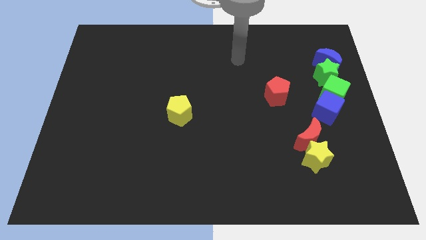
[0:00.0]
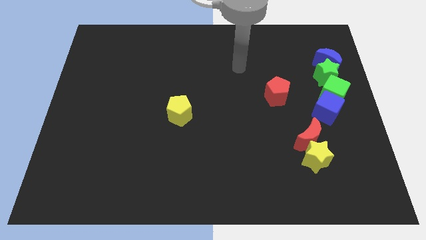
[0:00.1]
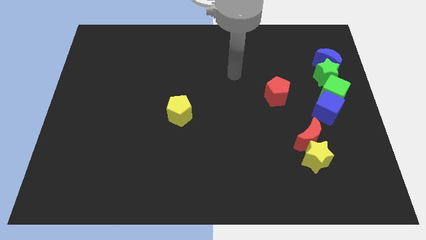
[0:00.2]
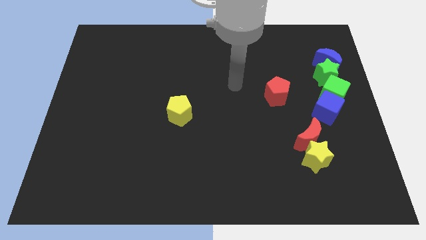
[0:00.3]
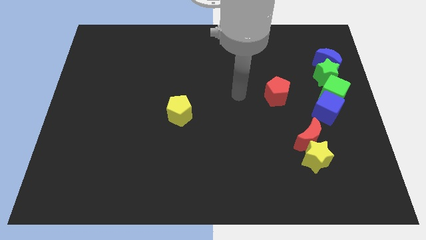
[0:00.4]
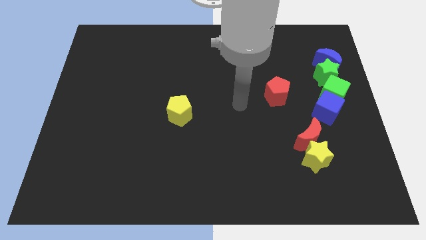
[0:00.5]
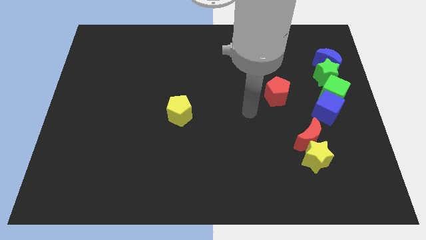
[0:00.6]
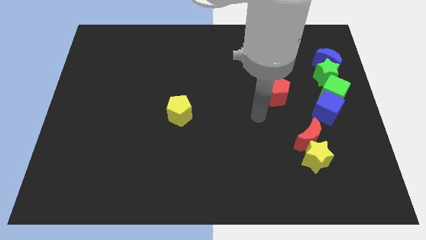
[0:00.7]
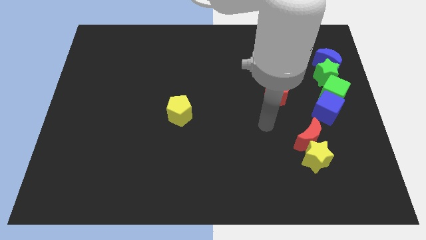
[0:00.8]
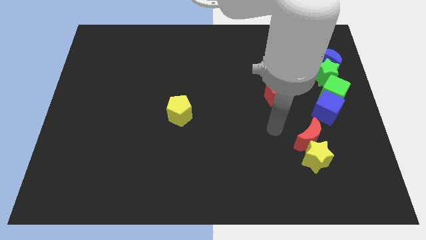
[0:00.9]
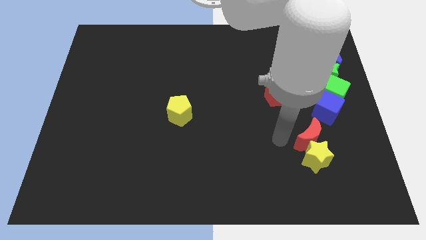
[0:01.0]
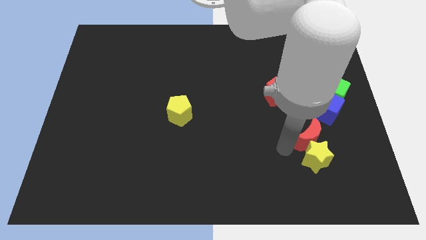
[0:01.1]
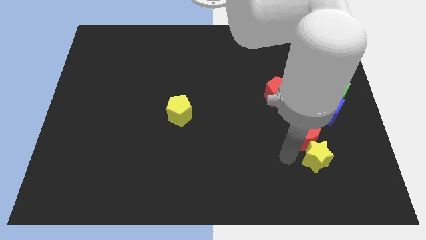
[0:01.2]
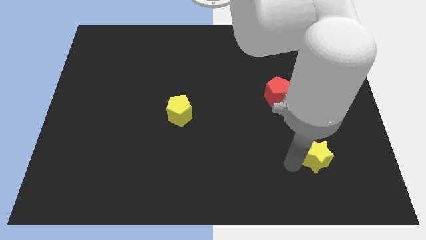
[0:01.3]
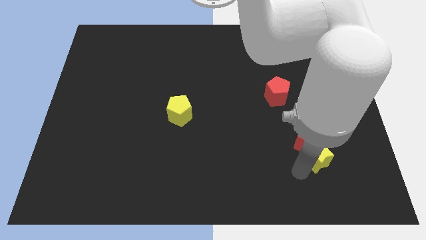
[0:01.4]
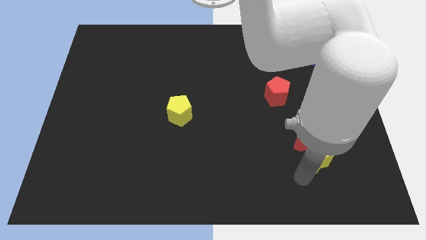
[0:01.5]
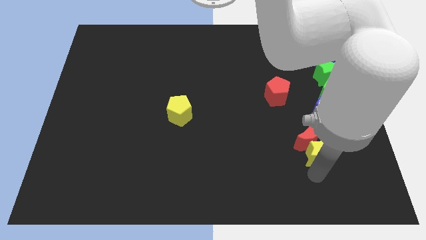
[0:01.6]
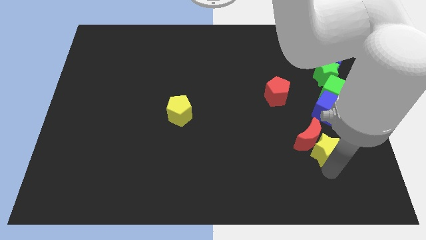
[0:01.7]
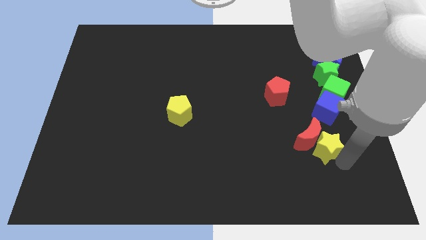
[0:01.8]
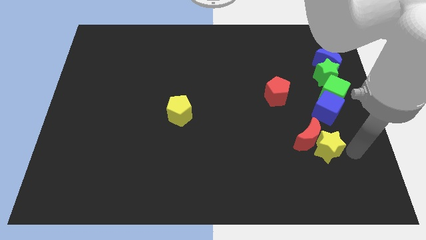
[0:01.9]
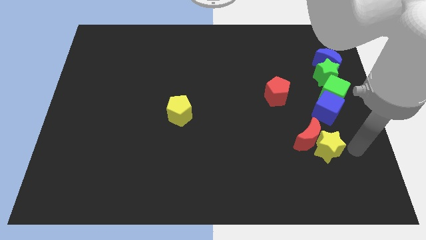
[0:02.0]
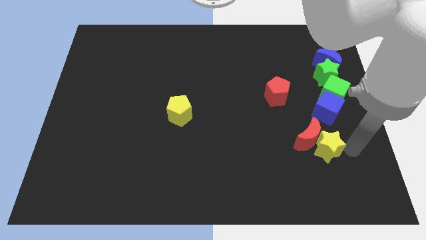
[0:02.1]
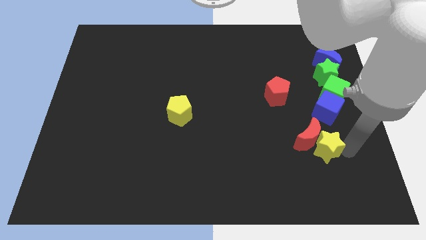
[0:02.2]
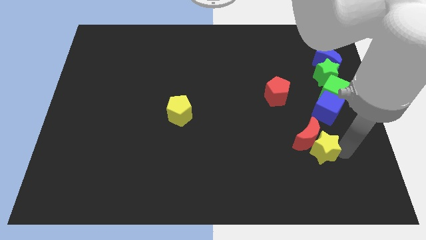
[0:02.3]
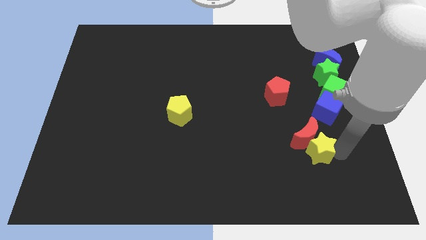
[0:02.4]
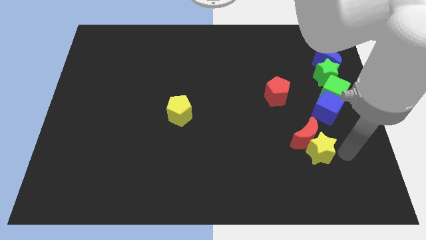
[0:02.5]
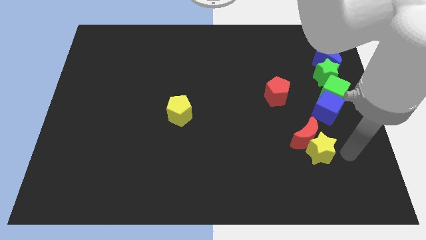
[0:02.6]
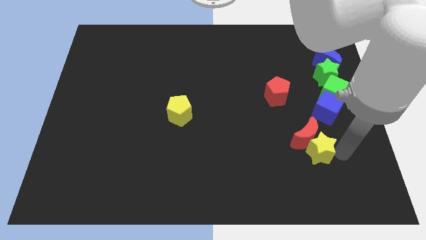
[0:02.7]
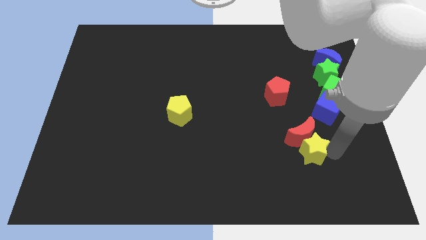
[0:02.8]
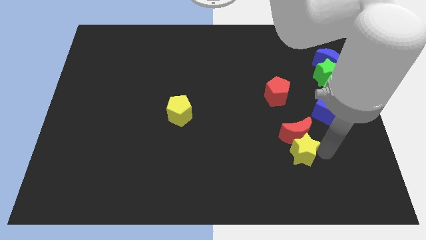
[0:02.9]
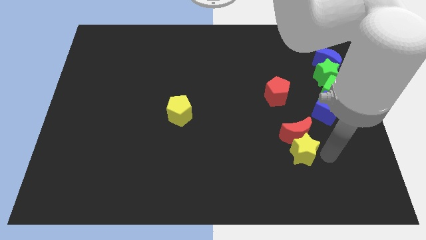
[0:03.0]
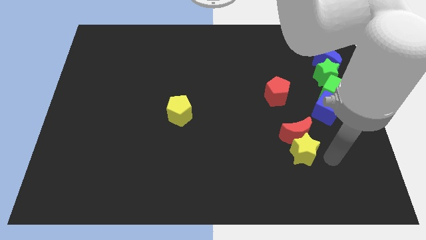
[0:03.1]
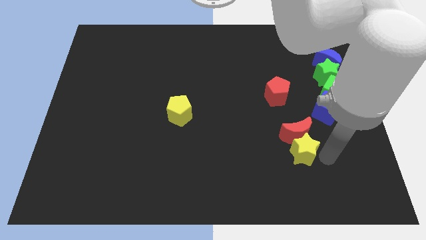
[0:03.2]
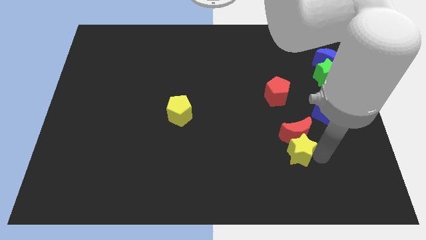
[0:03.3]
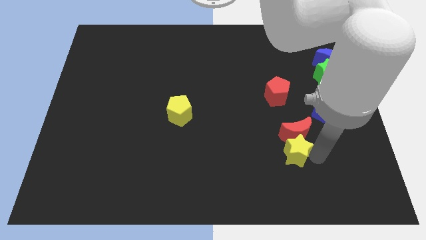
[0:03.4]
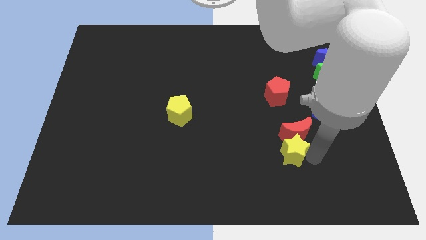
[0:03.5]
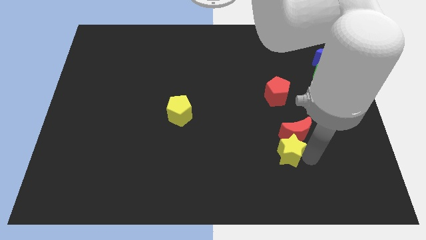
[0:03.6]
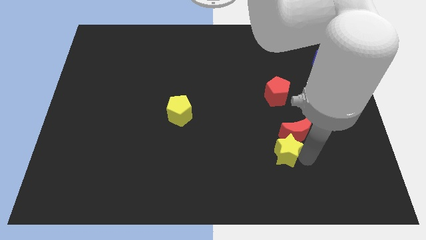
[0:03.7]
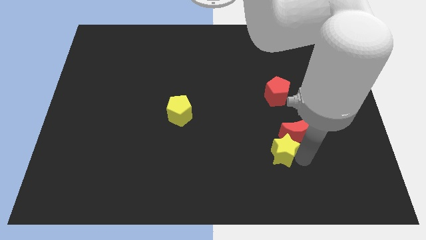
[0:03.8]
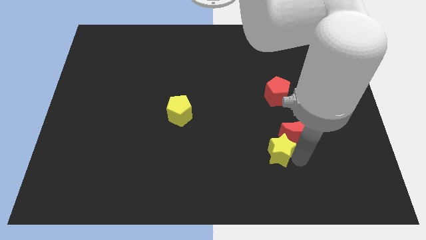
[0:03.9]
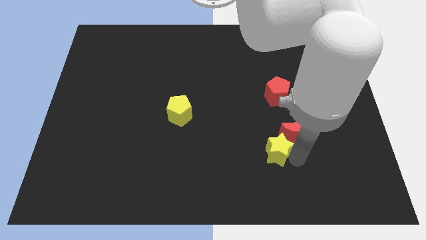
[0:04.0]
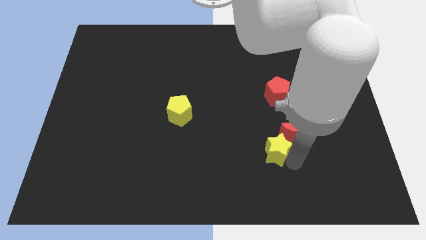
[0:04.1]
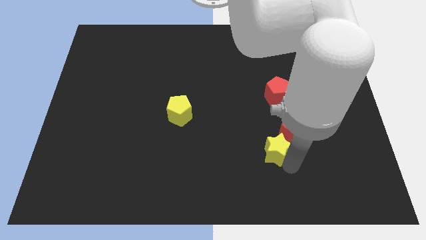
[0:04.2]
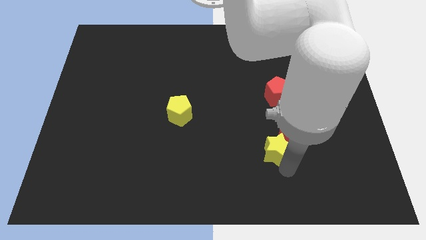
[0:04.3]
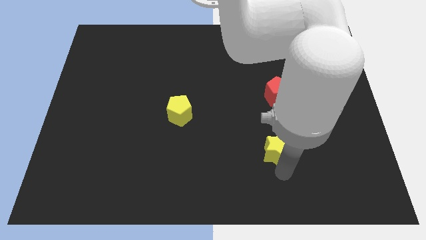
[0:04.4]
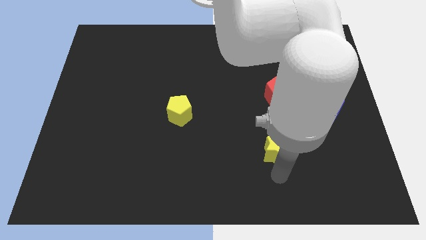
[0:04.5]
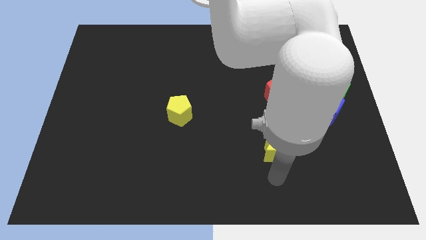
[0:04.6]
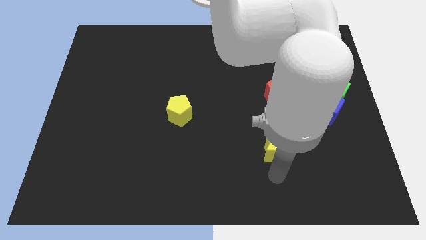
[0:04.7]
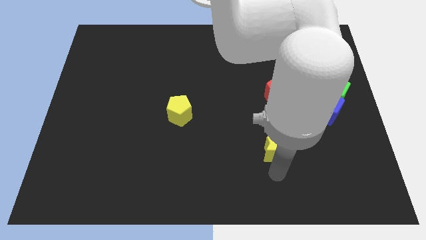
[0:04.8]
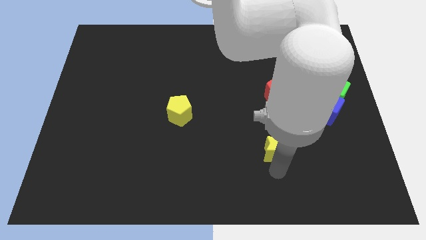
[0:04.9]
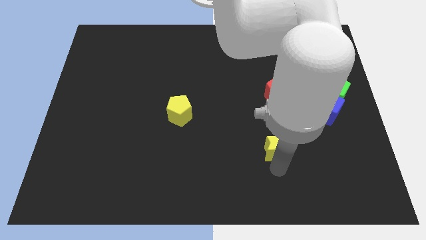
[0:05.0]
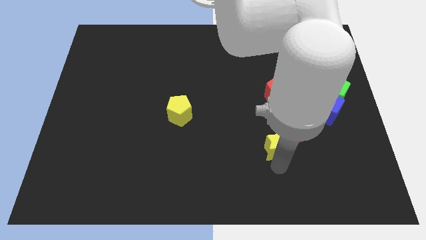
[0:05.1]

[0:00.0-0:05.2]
slide the yellow star diagonally up and left a little

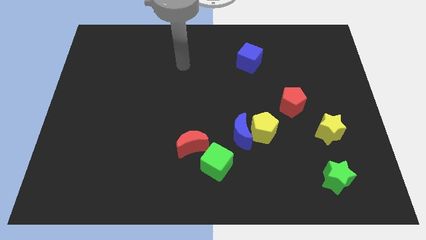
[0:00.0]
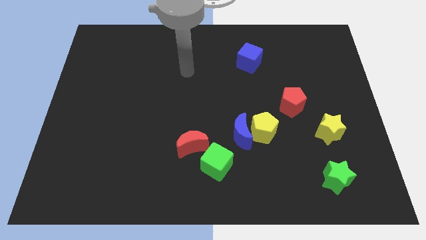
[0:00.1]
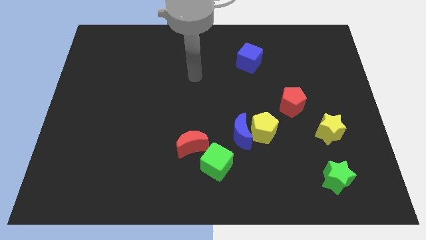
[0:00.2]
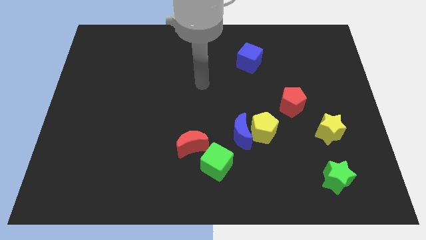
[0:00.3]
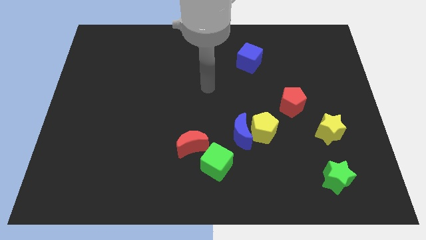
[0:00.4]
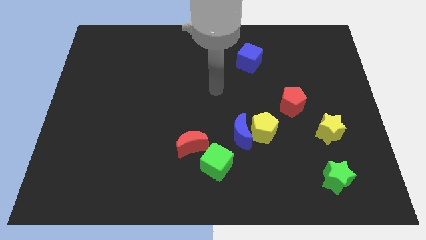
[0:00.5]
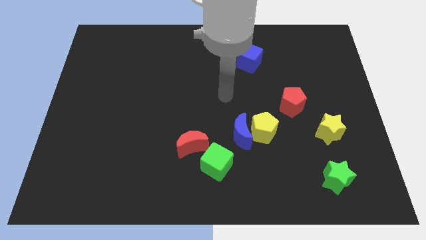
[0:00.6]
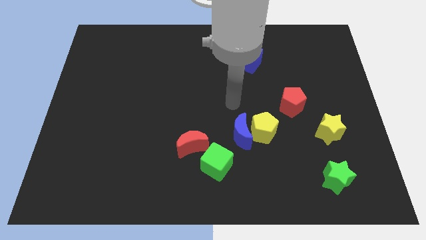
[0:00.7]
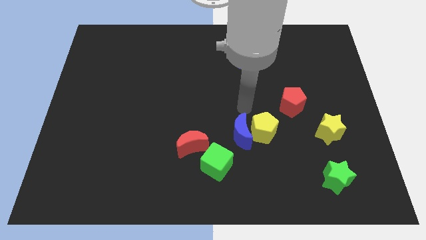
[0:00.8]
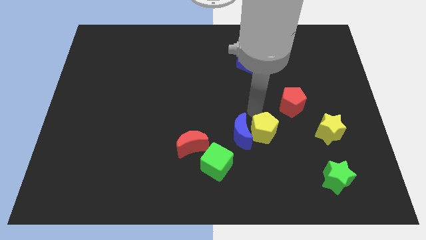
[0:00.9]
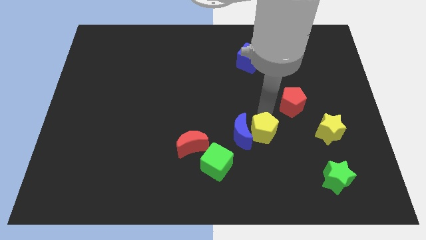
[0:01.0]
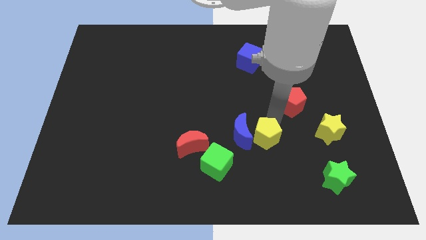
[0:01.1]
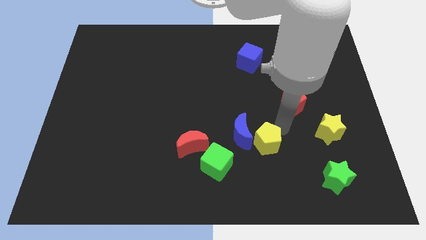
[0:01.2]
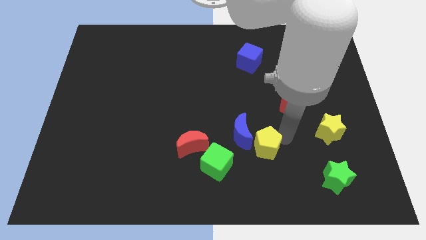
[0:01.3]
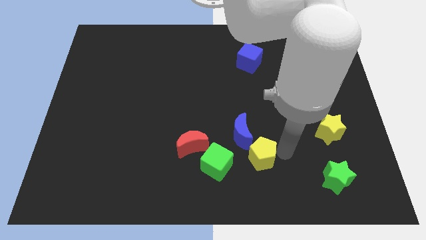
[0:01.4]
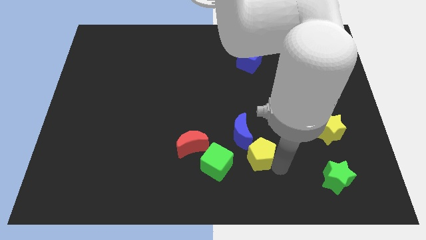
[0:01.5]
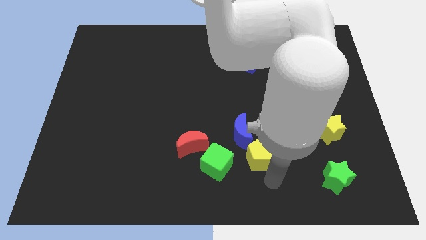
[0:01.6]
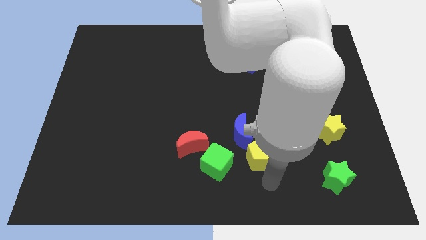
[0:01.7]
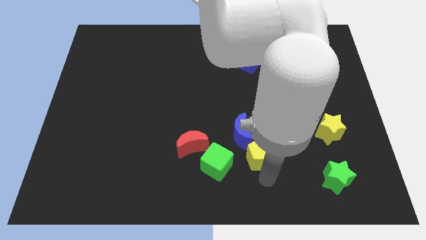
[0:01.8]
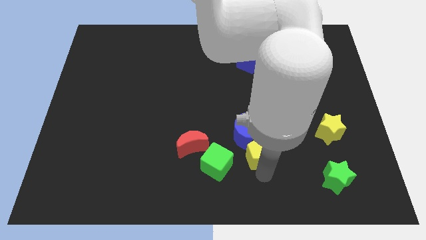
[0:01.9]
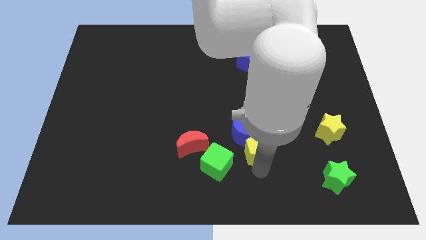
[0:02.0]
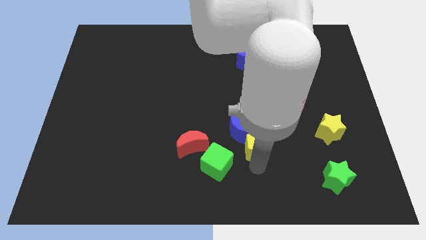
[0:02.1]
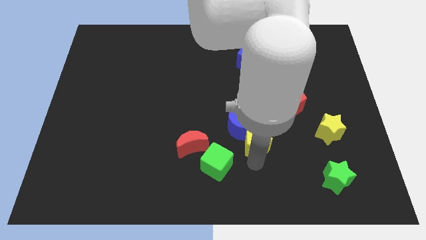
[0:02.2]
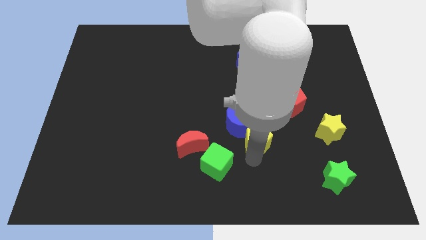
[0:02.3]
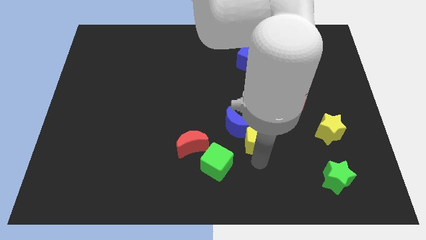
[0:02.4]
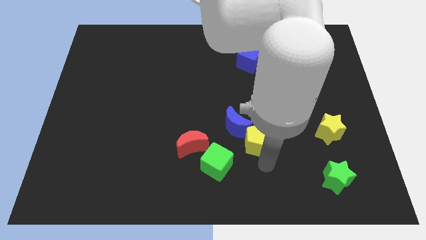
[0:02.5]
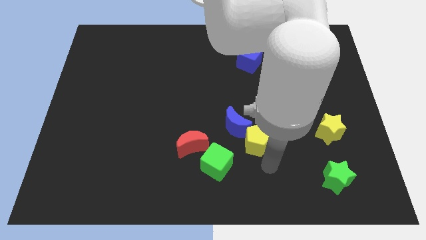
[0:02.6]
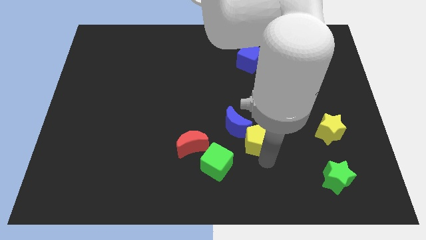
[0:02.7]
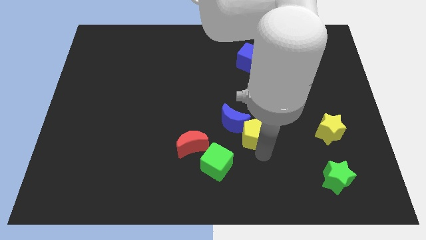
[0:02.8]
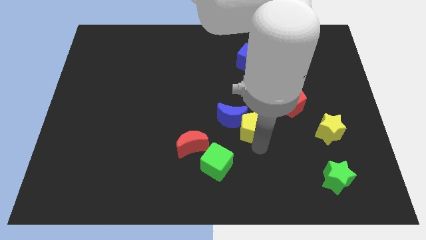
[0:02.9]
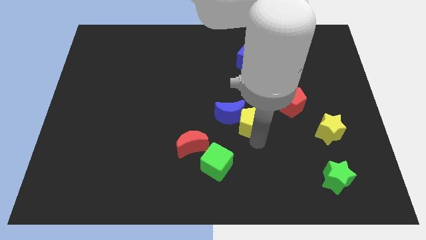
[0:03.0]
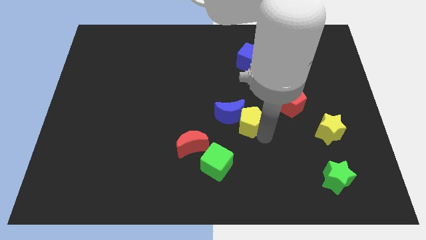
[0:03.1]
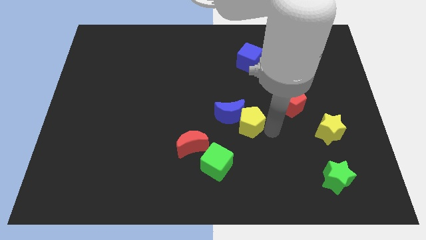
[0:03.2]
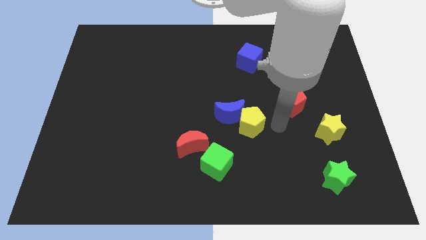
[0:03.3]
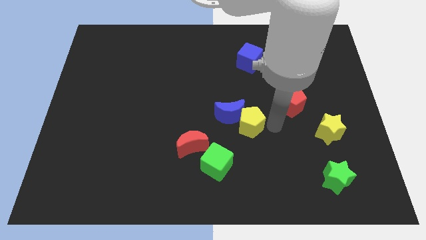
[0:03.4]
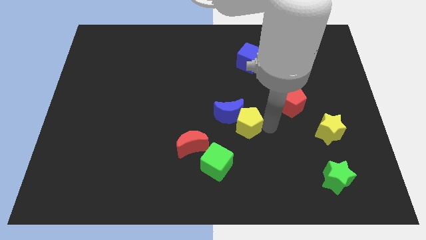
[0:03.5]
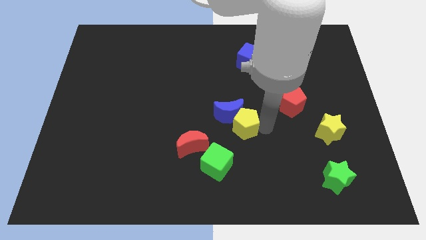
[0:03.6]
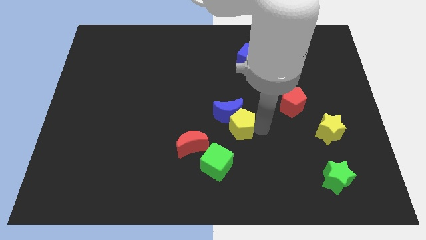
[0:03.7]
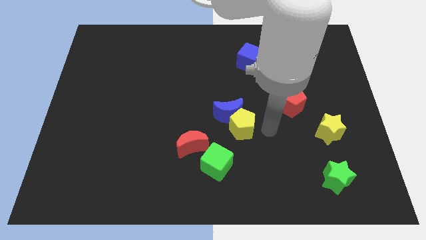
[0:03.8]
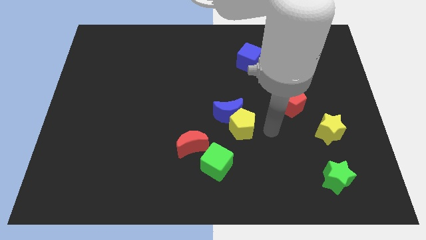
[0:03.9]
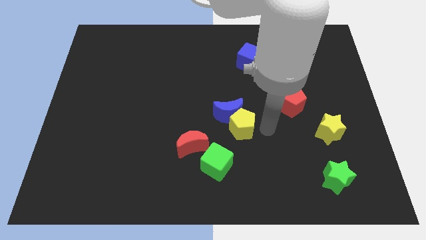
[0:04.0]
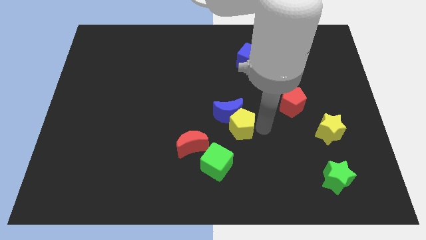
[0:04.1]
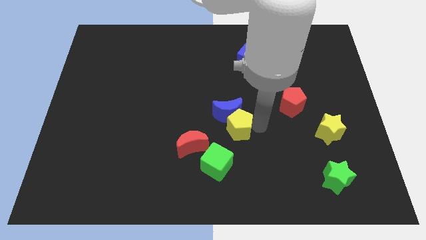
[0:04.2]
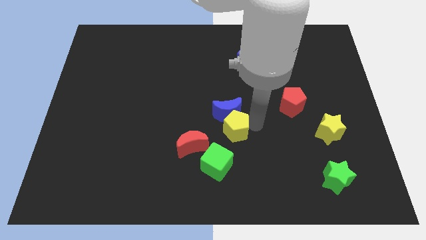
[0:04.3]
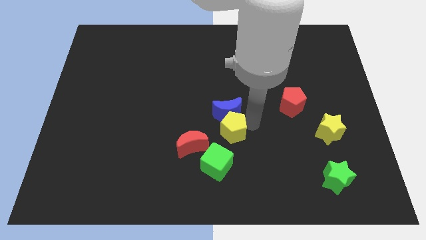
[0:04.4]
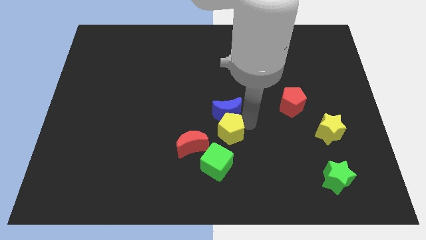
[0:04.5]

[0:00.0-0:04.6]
slide the yellow pentagon to the left slightly
